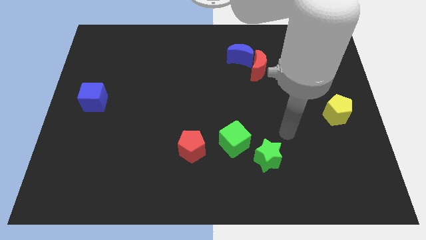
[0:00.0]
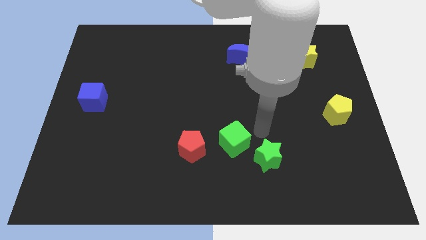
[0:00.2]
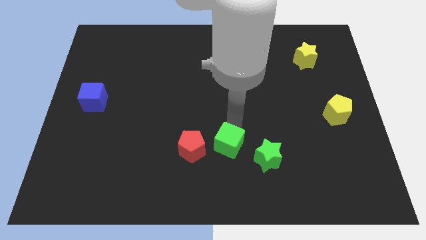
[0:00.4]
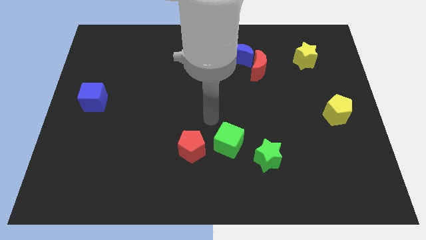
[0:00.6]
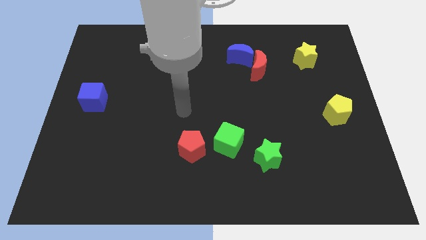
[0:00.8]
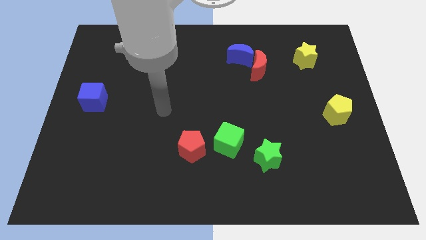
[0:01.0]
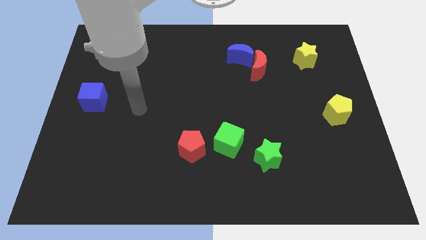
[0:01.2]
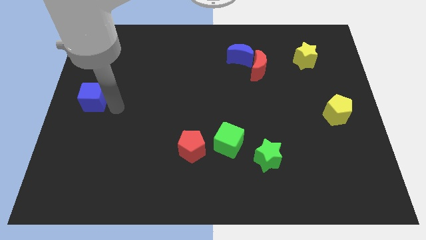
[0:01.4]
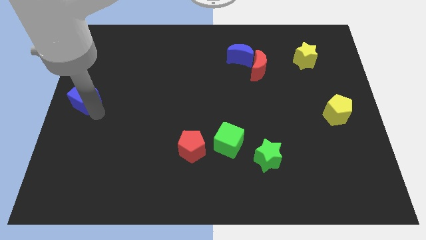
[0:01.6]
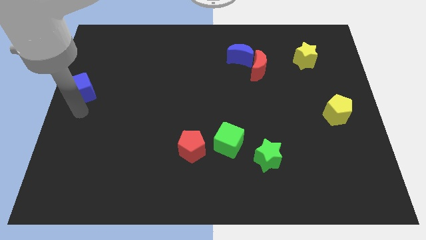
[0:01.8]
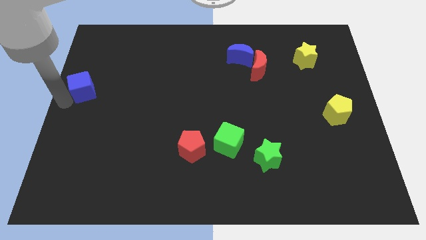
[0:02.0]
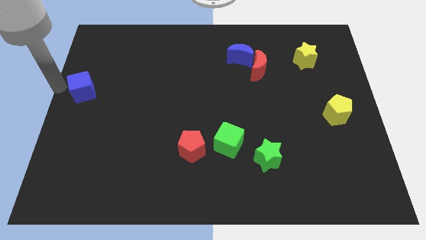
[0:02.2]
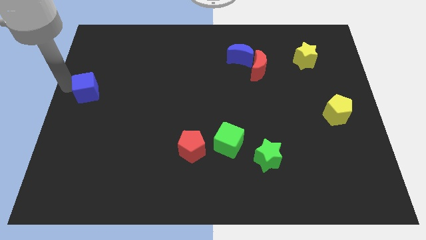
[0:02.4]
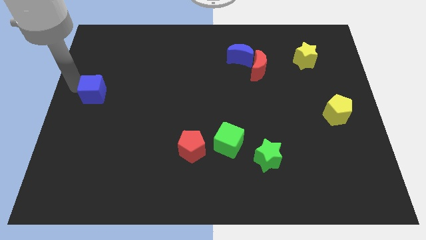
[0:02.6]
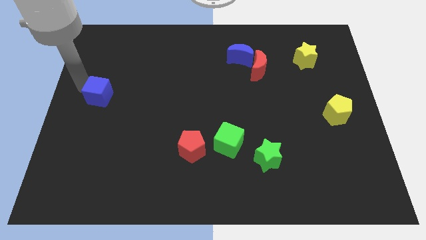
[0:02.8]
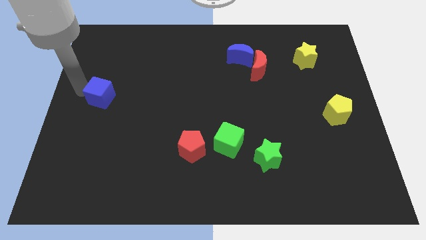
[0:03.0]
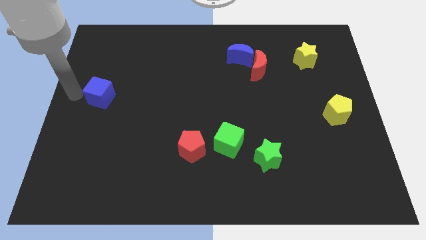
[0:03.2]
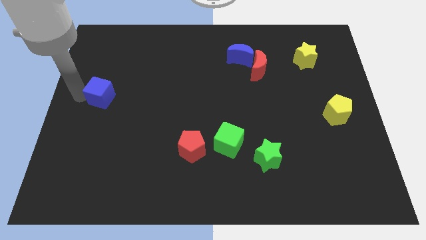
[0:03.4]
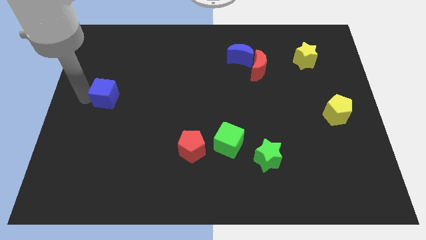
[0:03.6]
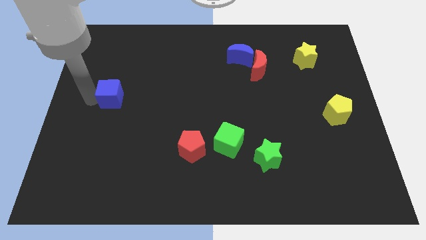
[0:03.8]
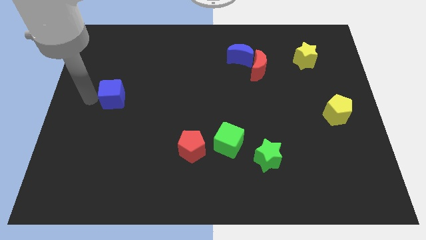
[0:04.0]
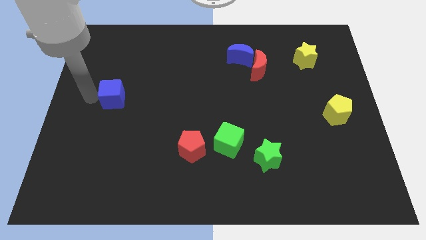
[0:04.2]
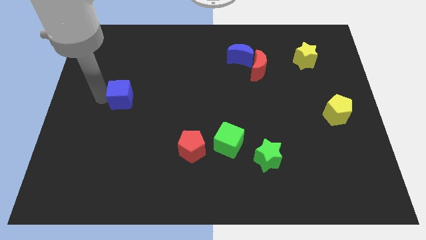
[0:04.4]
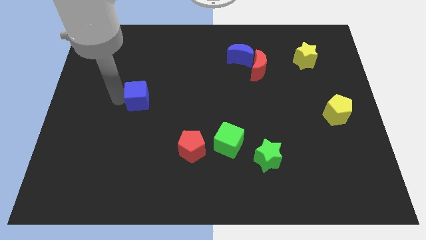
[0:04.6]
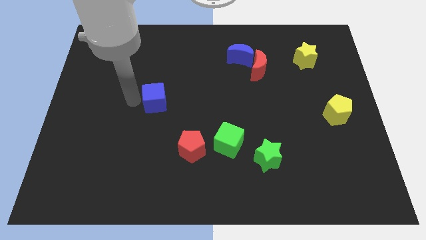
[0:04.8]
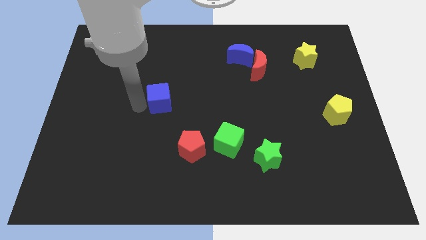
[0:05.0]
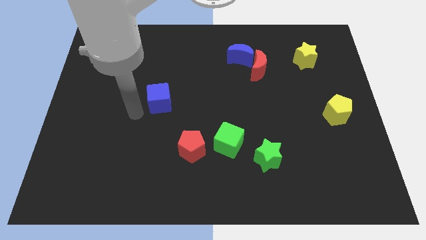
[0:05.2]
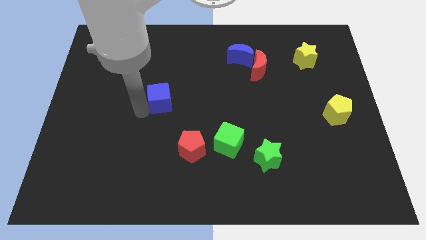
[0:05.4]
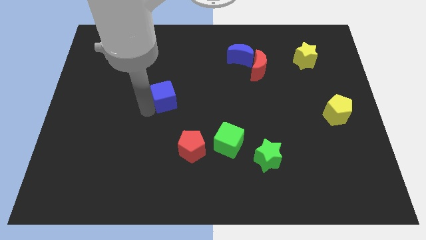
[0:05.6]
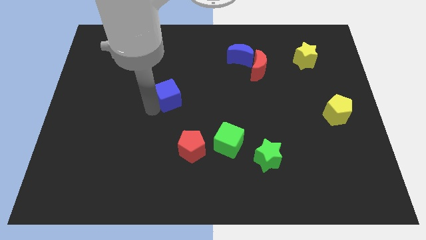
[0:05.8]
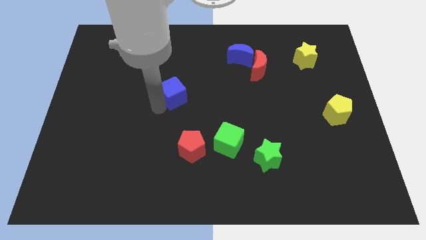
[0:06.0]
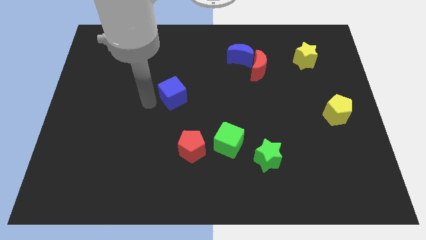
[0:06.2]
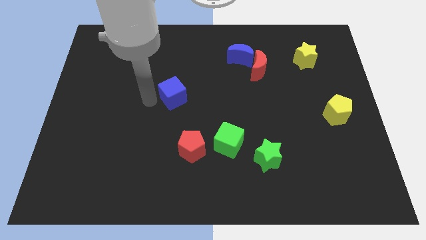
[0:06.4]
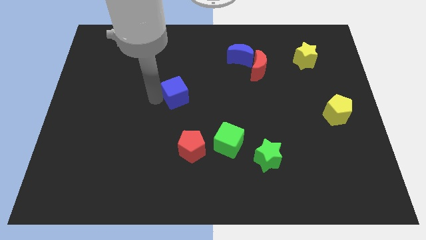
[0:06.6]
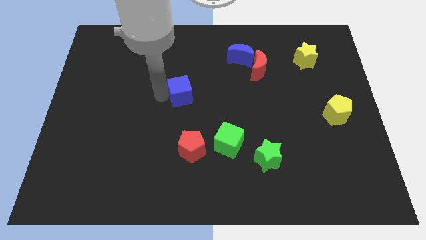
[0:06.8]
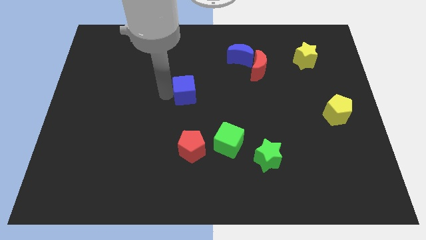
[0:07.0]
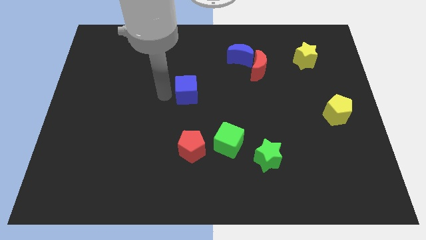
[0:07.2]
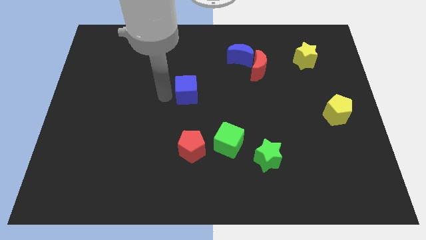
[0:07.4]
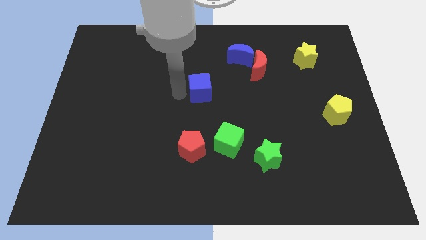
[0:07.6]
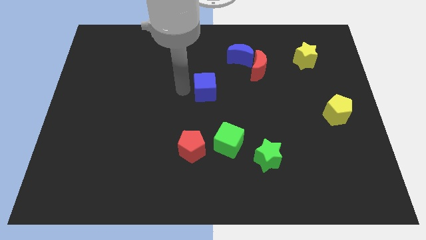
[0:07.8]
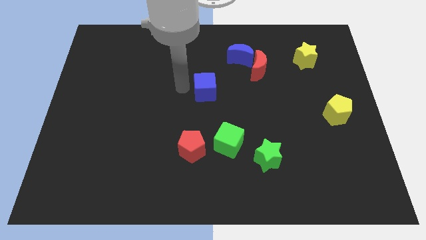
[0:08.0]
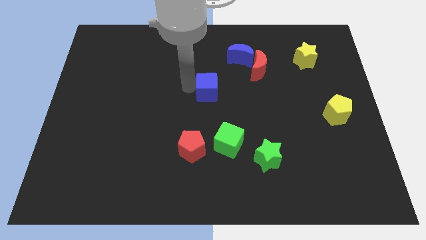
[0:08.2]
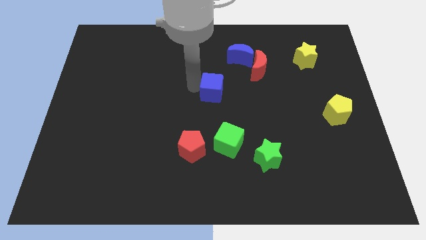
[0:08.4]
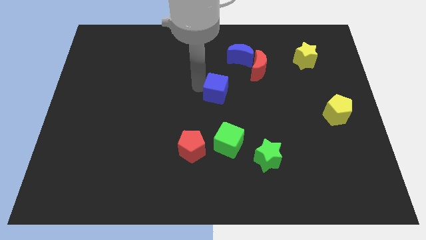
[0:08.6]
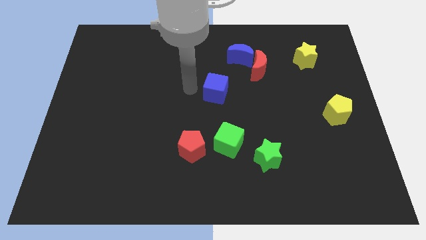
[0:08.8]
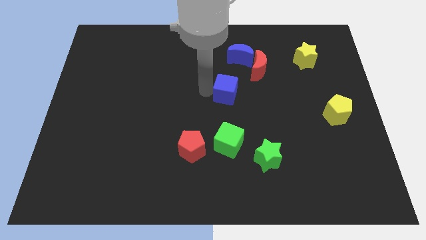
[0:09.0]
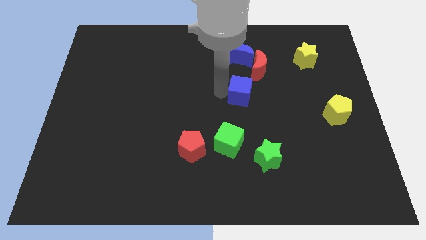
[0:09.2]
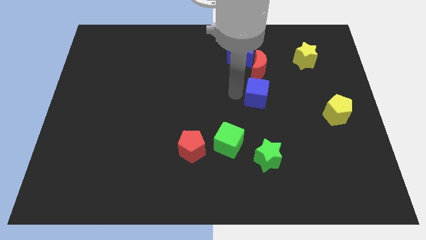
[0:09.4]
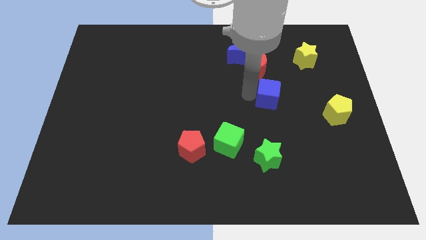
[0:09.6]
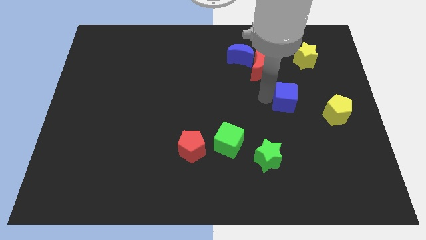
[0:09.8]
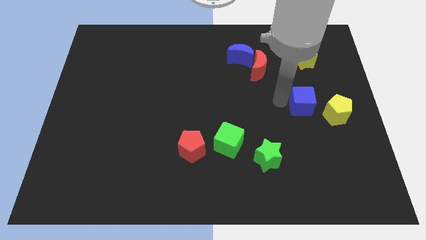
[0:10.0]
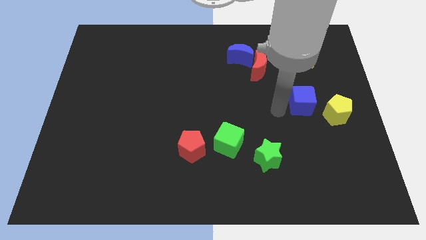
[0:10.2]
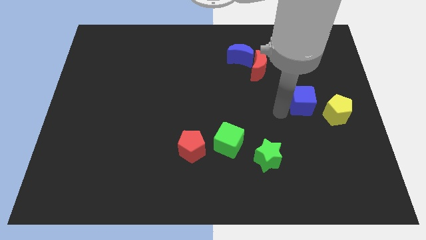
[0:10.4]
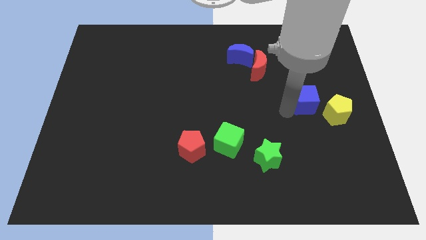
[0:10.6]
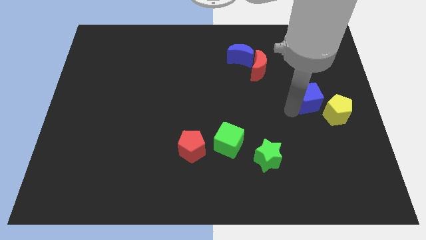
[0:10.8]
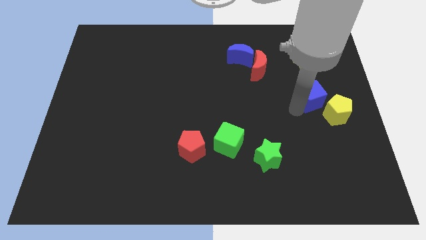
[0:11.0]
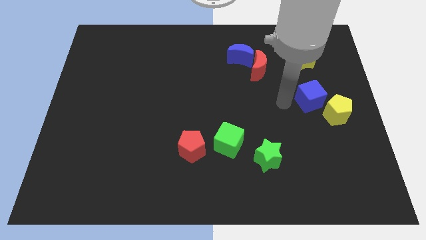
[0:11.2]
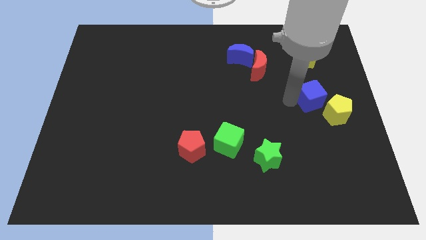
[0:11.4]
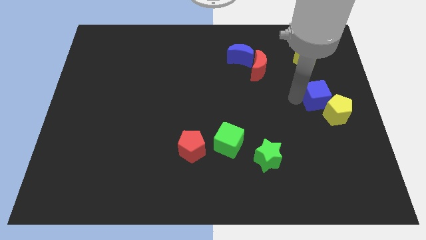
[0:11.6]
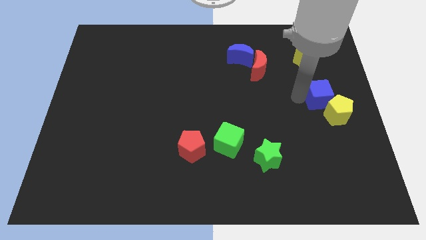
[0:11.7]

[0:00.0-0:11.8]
put the blue cube to the center right

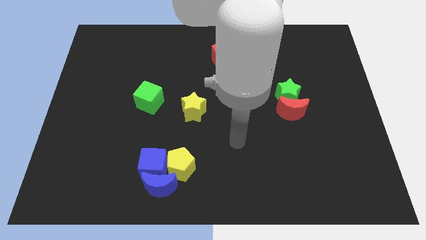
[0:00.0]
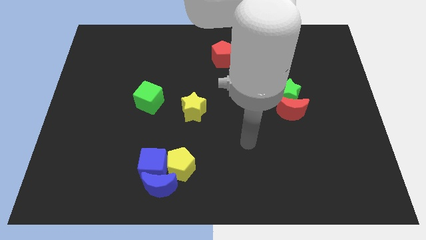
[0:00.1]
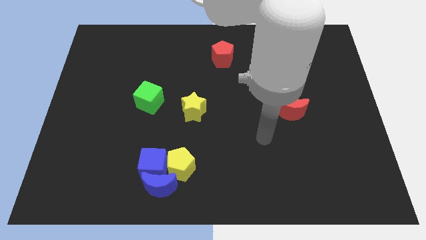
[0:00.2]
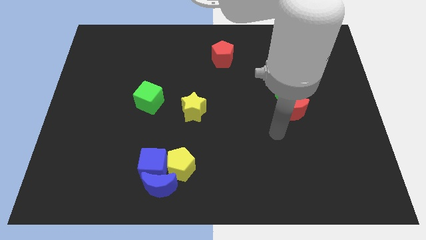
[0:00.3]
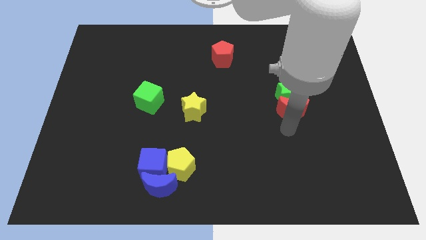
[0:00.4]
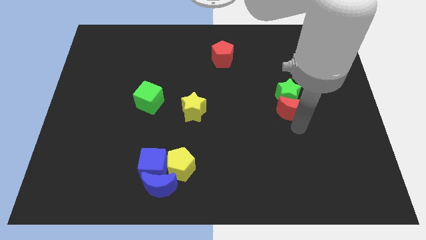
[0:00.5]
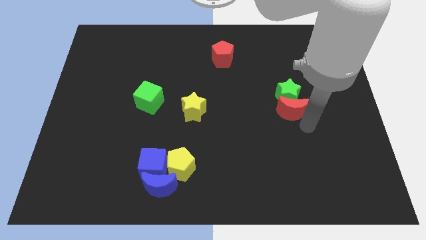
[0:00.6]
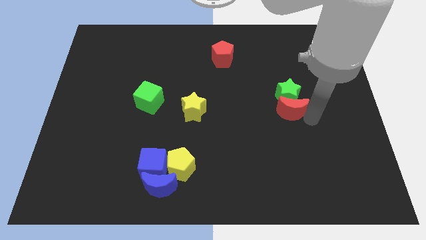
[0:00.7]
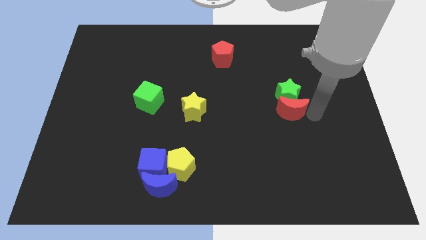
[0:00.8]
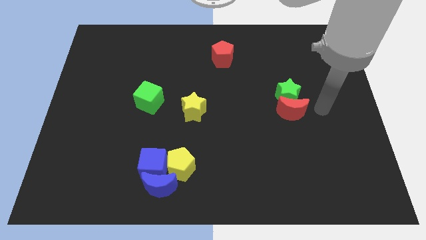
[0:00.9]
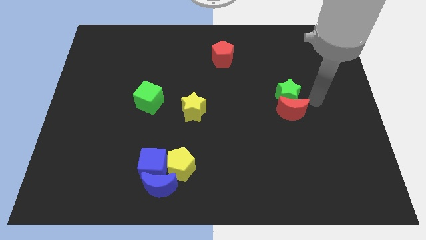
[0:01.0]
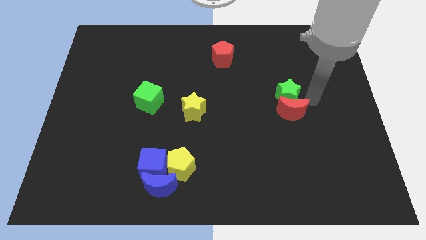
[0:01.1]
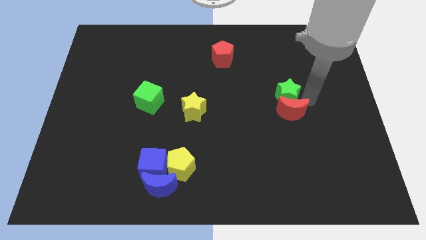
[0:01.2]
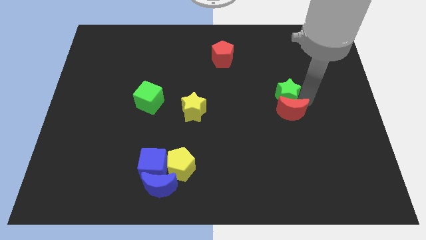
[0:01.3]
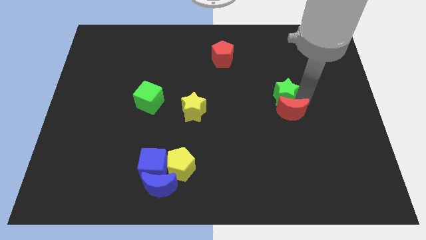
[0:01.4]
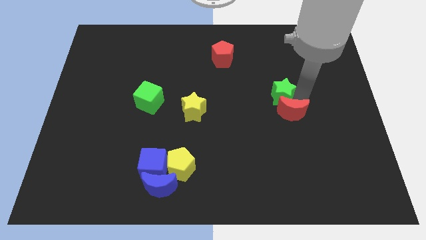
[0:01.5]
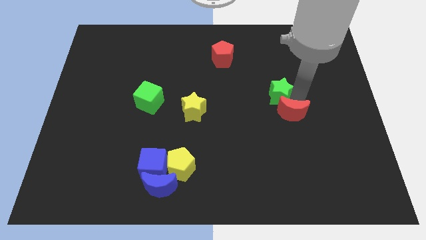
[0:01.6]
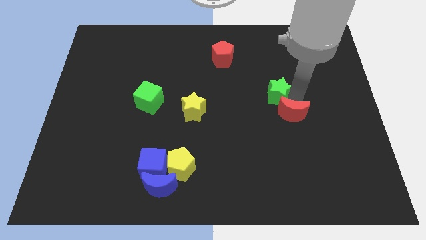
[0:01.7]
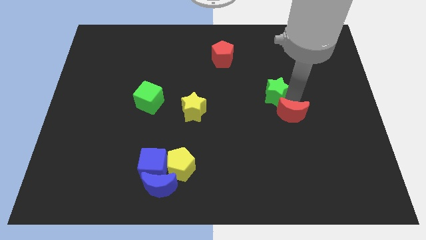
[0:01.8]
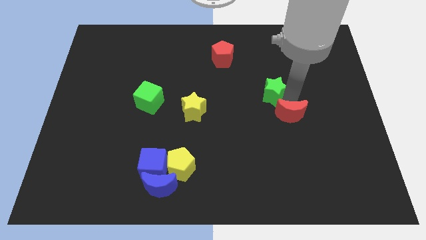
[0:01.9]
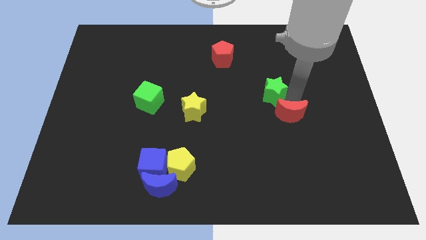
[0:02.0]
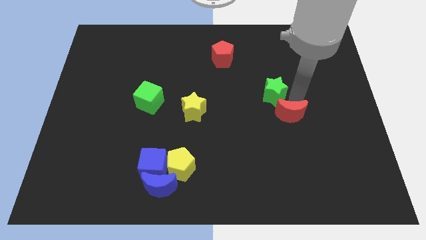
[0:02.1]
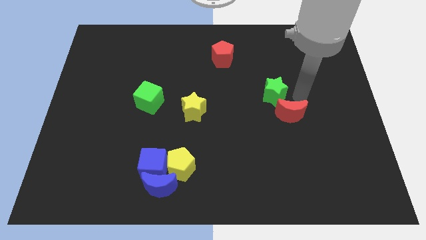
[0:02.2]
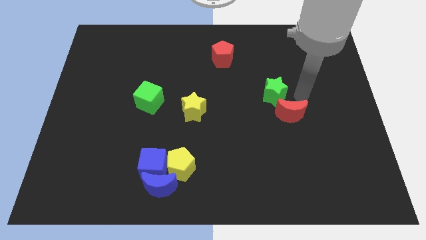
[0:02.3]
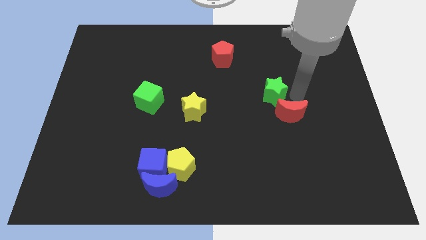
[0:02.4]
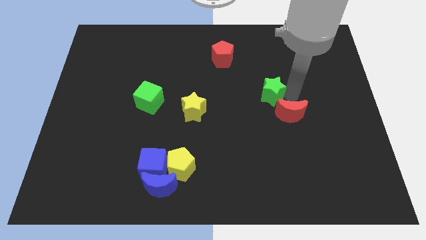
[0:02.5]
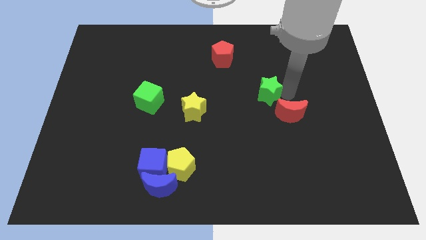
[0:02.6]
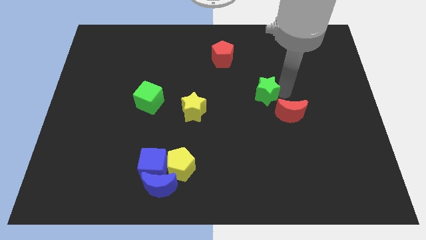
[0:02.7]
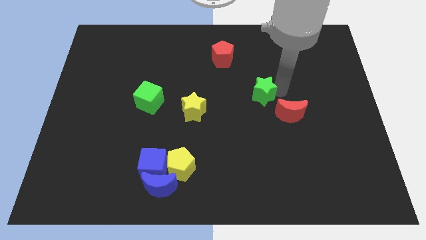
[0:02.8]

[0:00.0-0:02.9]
push the green star to the center of the board
